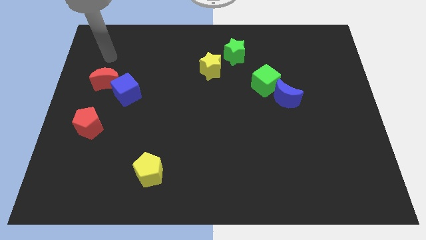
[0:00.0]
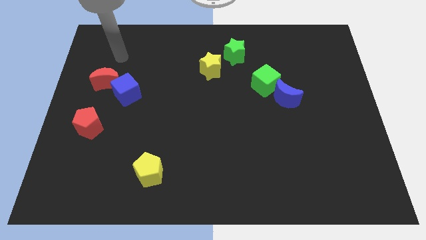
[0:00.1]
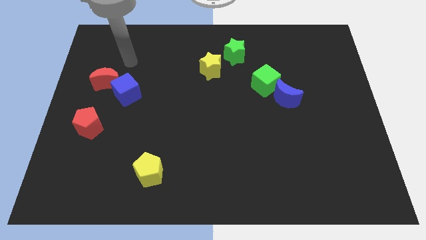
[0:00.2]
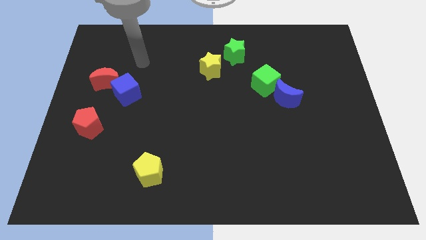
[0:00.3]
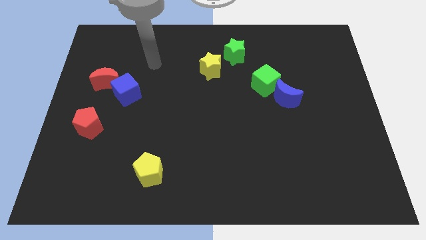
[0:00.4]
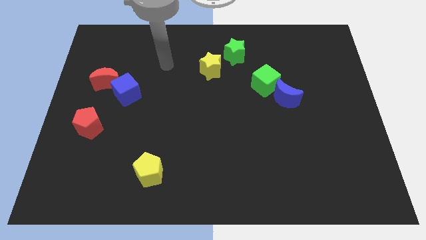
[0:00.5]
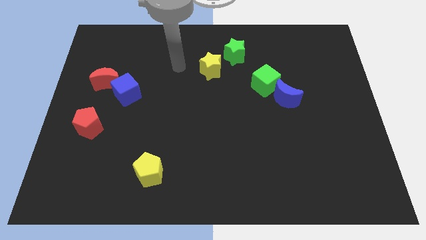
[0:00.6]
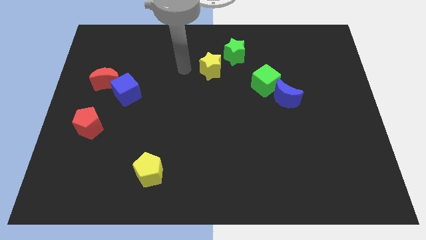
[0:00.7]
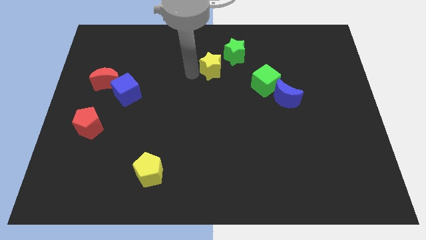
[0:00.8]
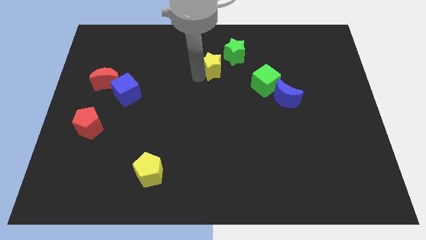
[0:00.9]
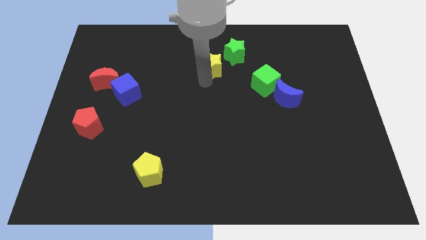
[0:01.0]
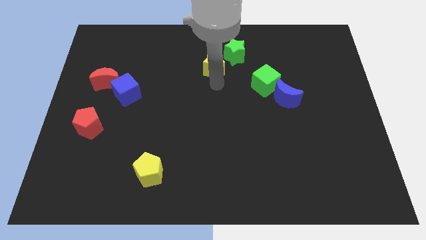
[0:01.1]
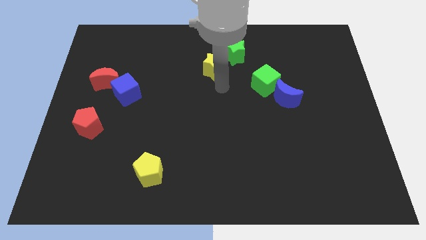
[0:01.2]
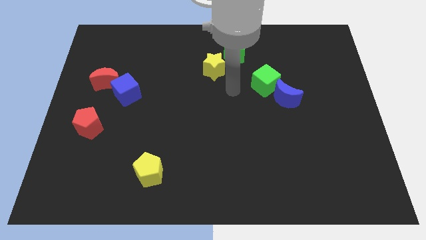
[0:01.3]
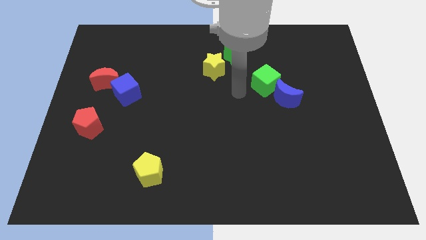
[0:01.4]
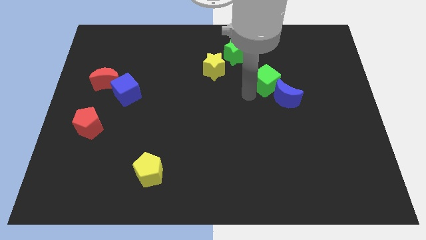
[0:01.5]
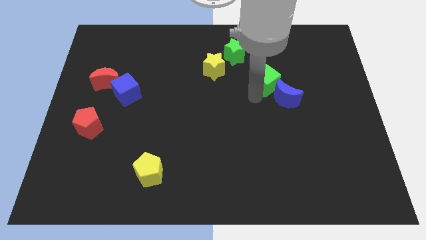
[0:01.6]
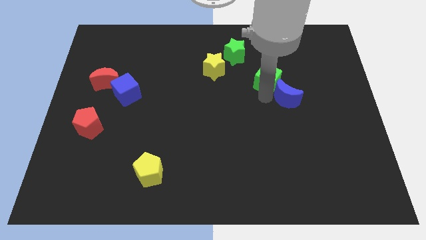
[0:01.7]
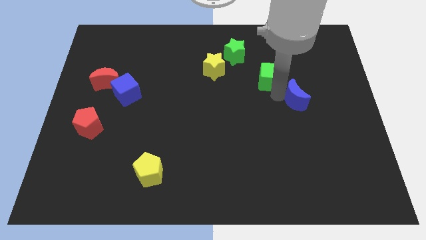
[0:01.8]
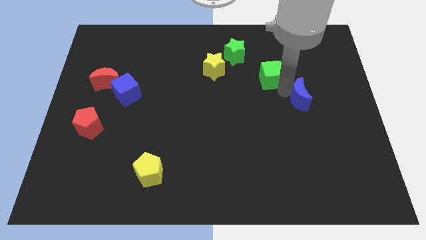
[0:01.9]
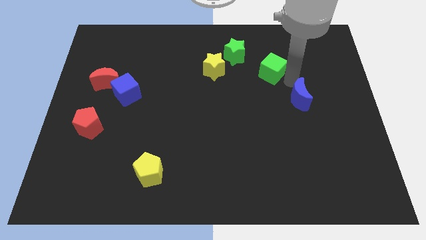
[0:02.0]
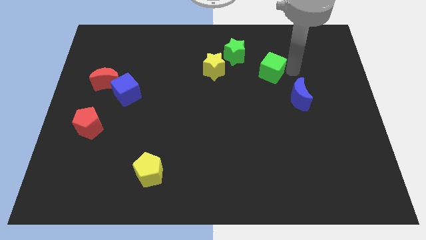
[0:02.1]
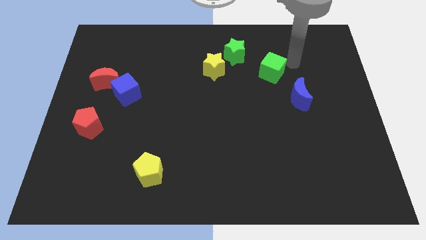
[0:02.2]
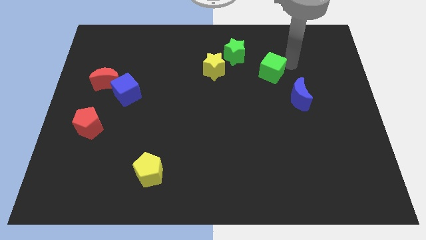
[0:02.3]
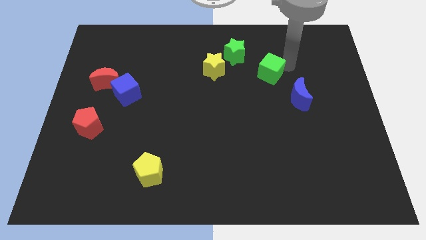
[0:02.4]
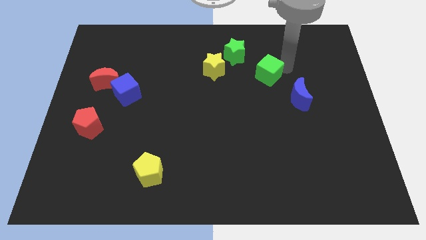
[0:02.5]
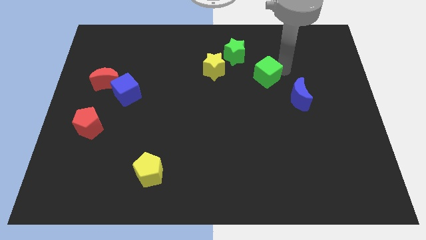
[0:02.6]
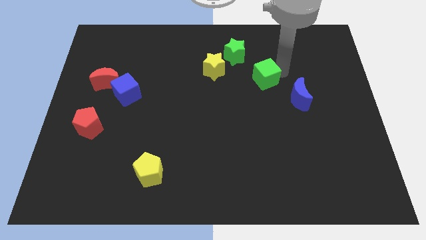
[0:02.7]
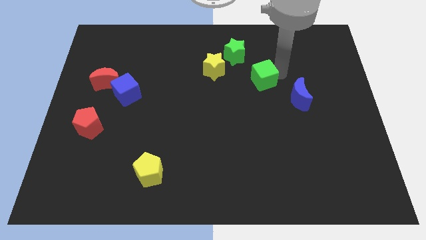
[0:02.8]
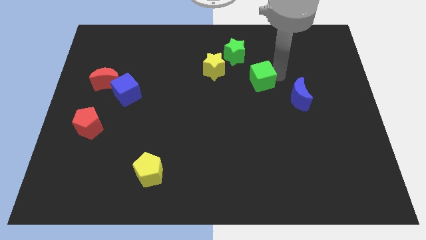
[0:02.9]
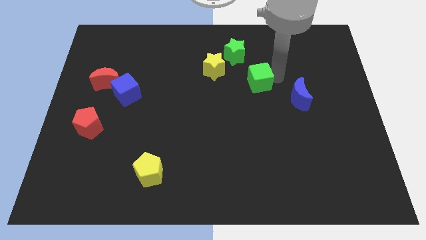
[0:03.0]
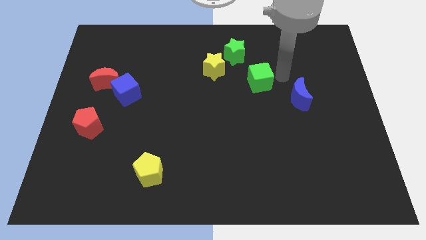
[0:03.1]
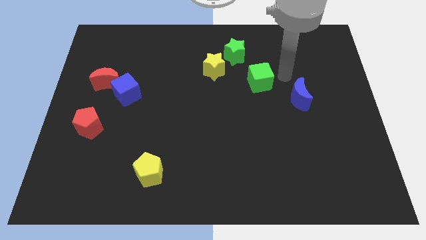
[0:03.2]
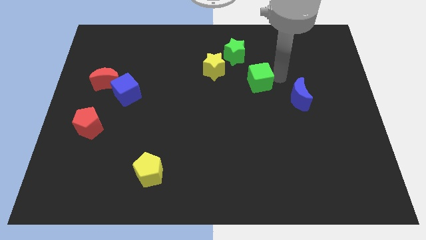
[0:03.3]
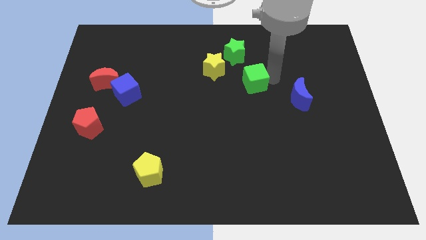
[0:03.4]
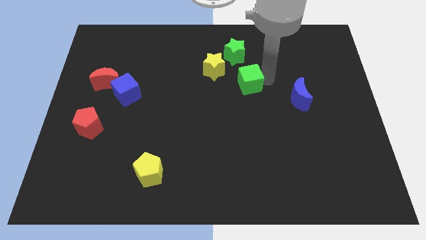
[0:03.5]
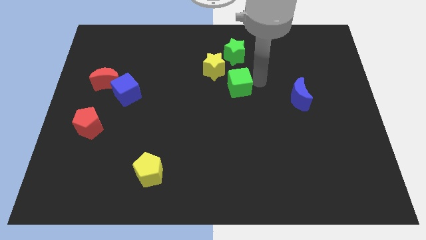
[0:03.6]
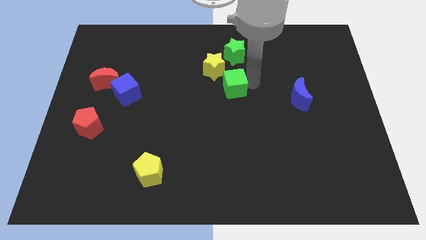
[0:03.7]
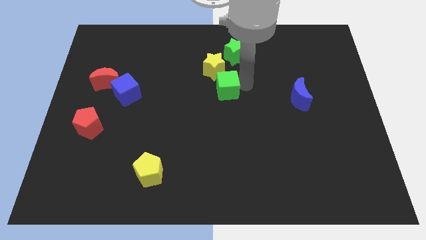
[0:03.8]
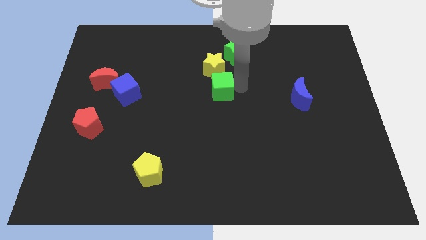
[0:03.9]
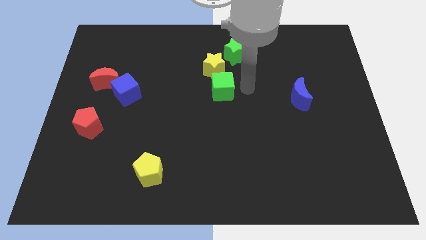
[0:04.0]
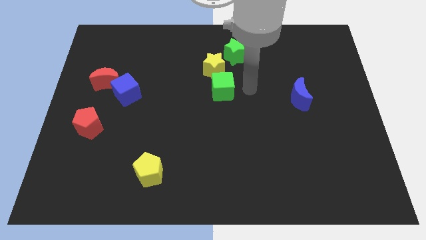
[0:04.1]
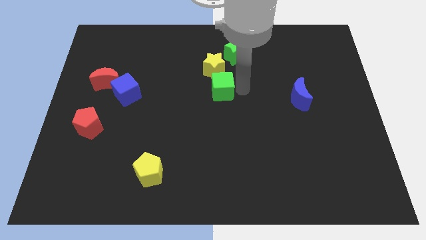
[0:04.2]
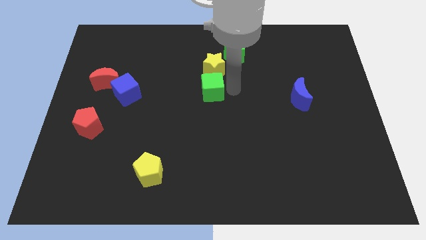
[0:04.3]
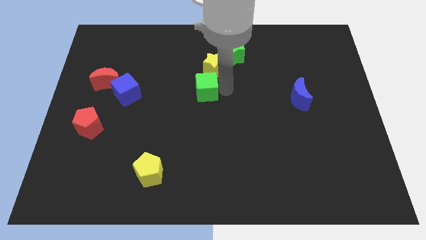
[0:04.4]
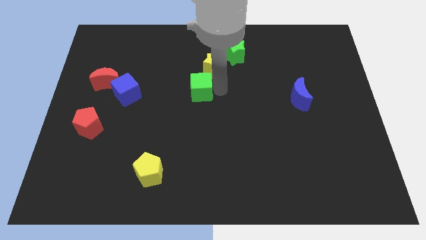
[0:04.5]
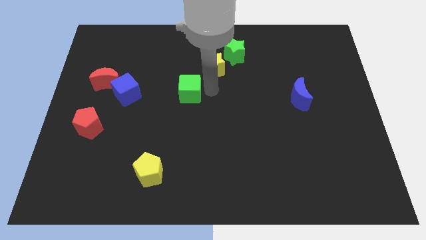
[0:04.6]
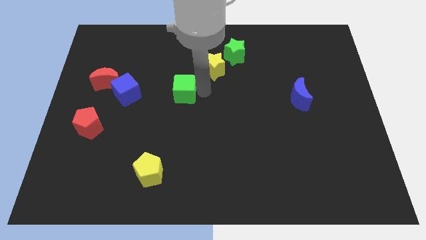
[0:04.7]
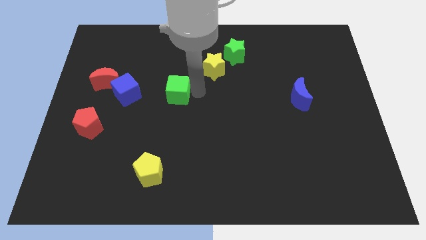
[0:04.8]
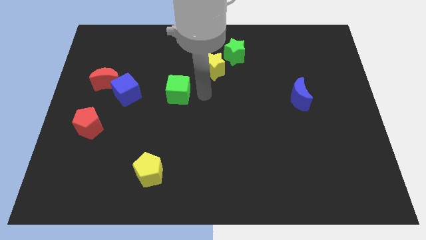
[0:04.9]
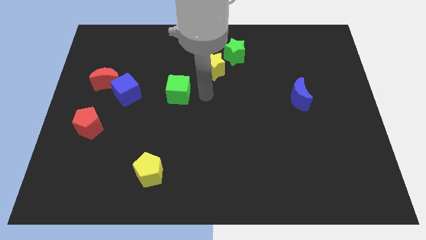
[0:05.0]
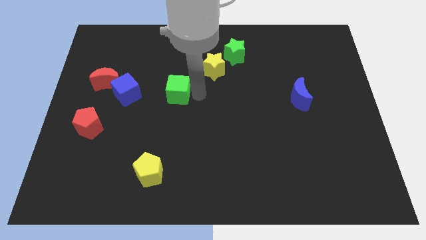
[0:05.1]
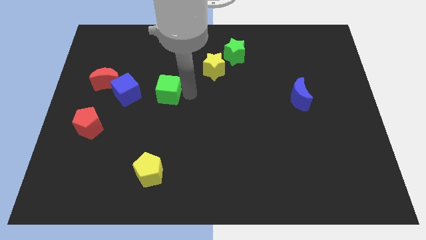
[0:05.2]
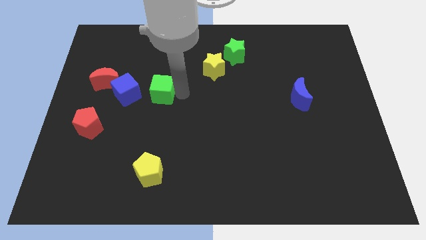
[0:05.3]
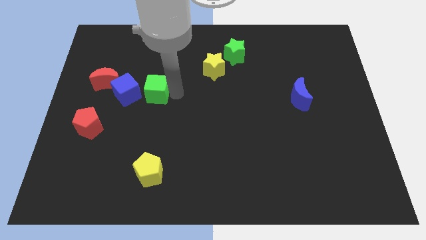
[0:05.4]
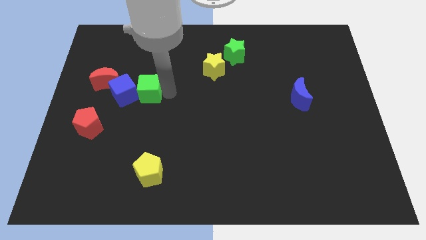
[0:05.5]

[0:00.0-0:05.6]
slide the green cube towards the blue cube

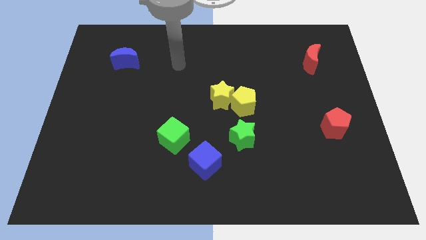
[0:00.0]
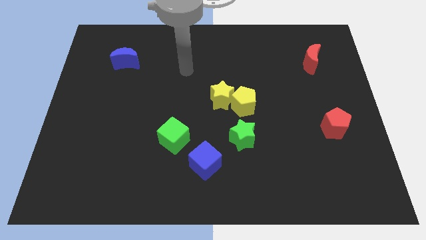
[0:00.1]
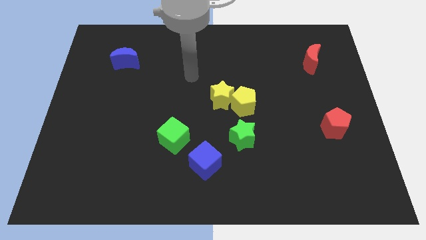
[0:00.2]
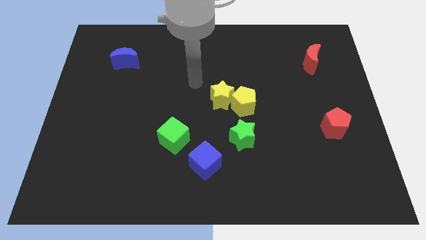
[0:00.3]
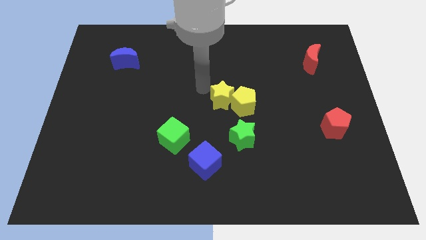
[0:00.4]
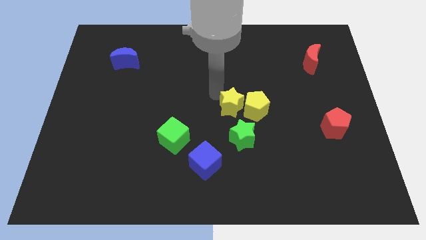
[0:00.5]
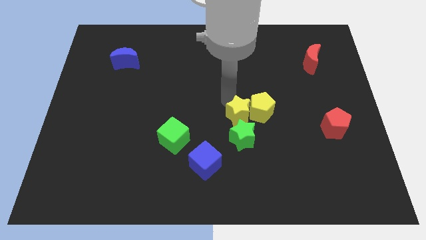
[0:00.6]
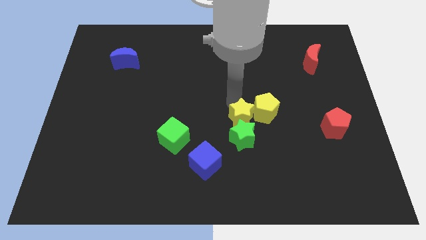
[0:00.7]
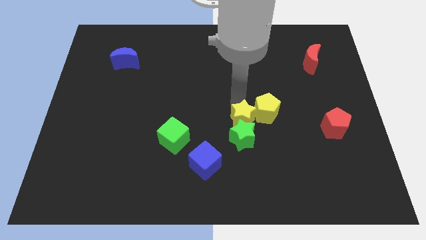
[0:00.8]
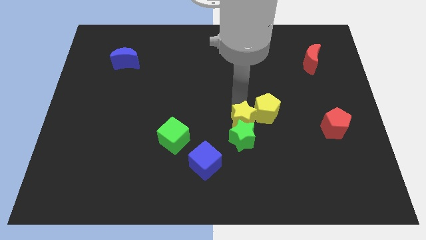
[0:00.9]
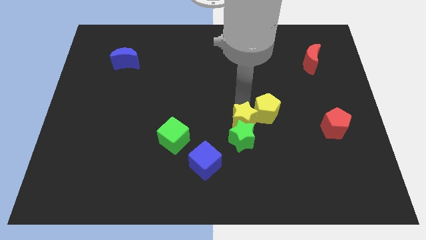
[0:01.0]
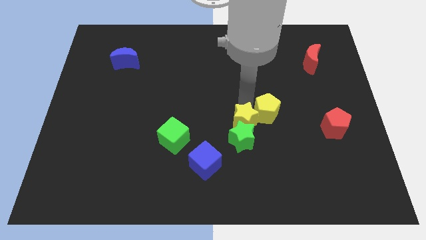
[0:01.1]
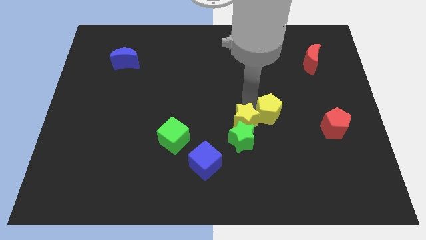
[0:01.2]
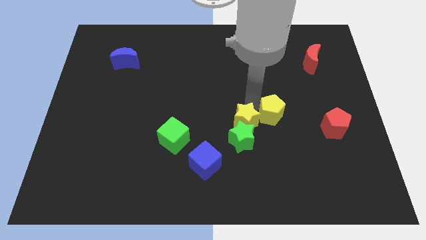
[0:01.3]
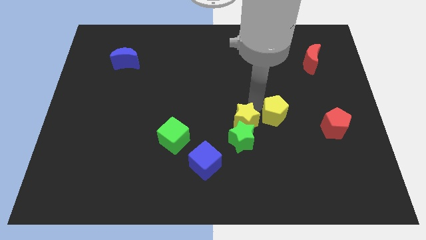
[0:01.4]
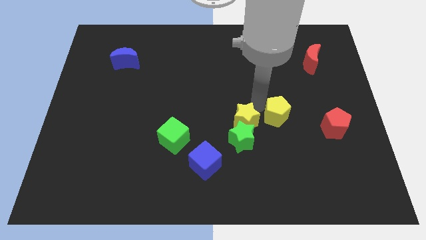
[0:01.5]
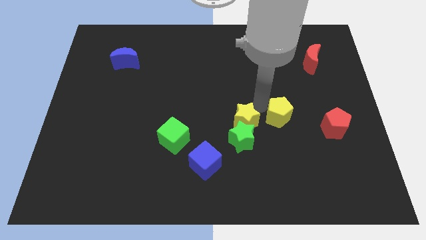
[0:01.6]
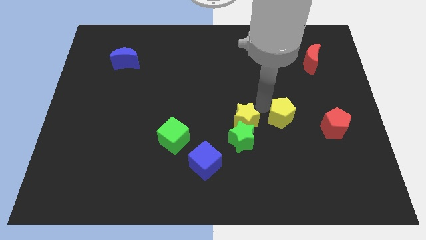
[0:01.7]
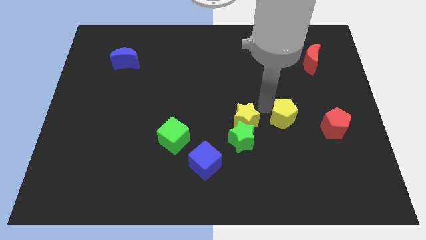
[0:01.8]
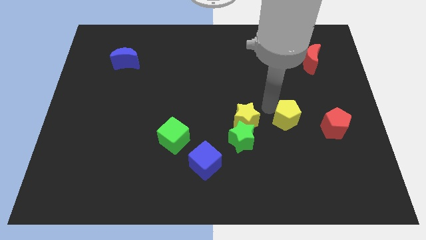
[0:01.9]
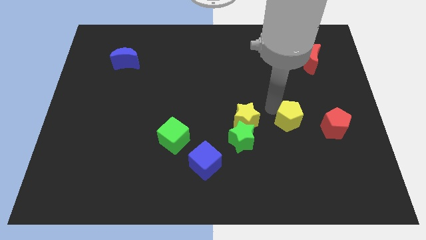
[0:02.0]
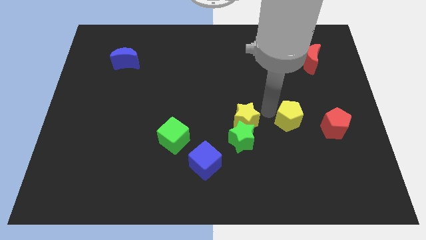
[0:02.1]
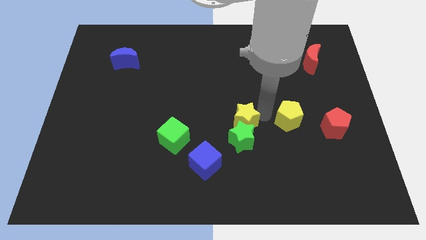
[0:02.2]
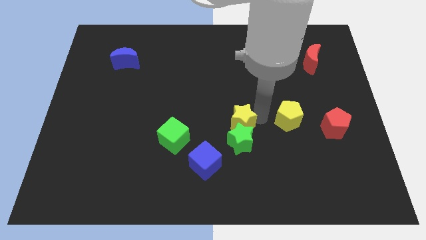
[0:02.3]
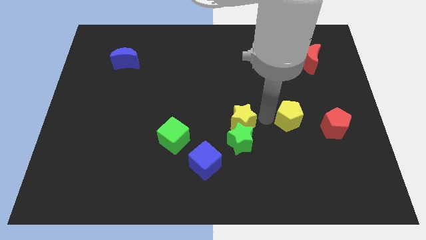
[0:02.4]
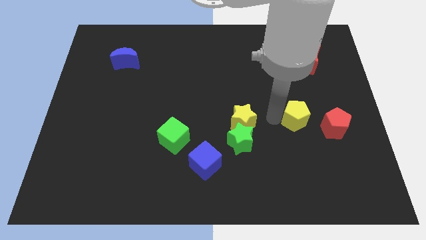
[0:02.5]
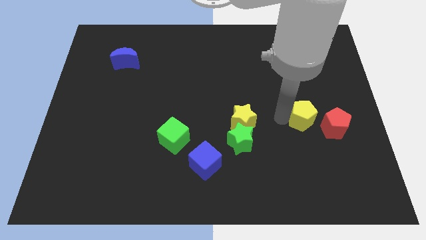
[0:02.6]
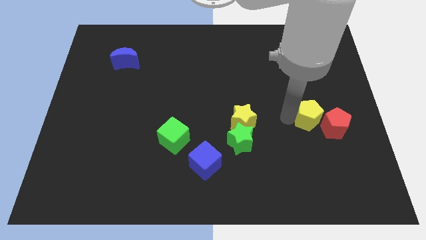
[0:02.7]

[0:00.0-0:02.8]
slide the yellow pentagon to the red pentagon
